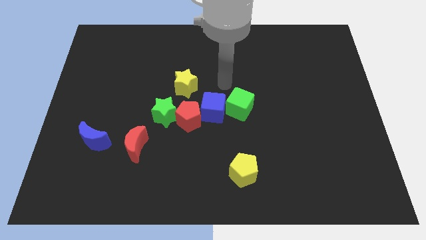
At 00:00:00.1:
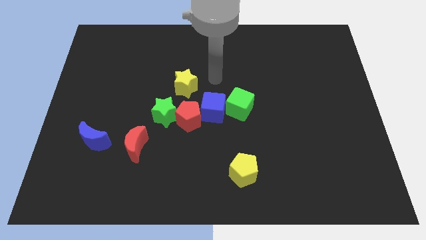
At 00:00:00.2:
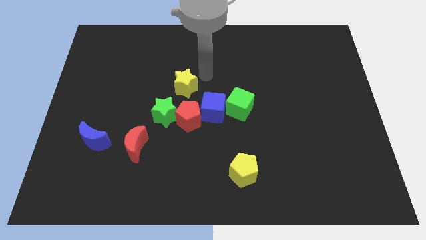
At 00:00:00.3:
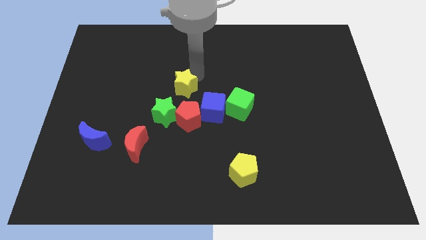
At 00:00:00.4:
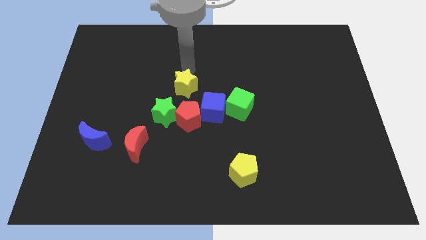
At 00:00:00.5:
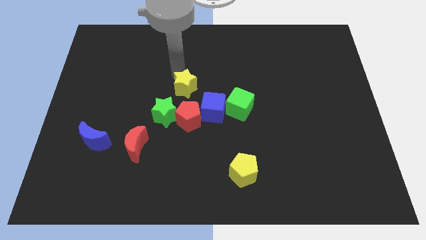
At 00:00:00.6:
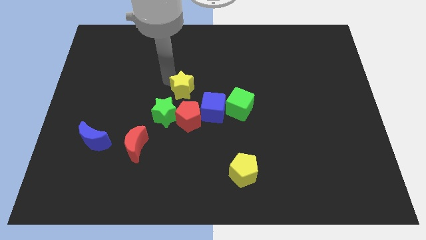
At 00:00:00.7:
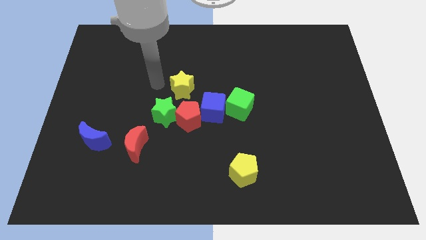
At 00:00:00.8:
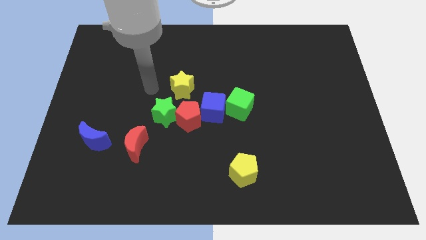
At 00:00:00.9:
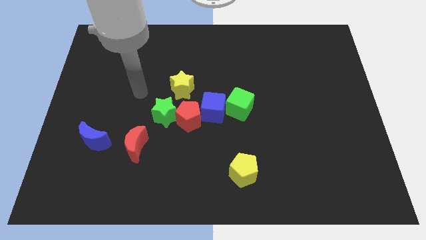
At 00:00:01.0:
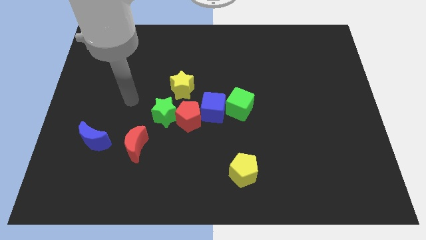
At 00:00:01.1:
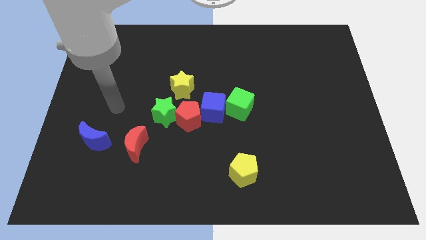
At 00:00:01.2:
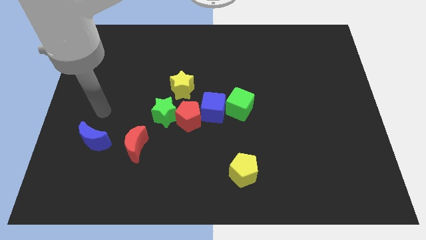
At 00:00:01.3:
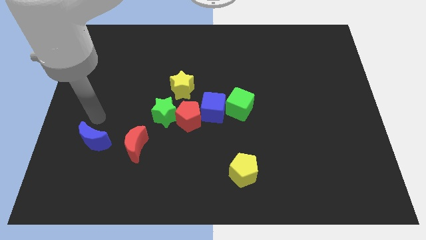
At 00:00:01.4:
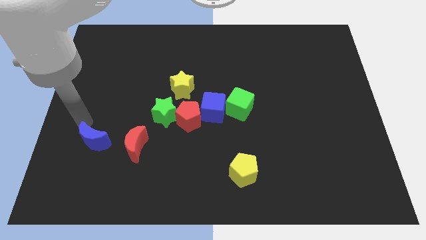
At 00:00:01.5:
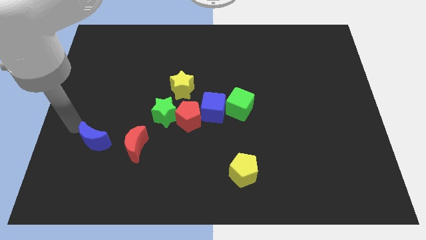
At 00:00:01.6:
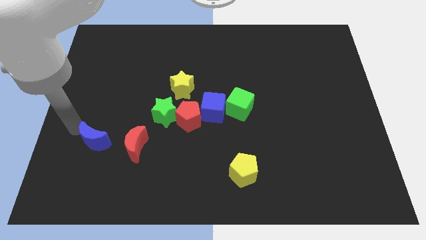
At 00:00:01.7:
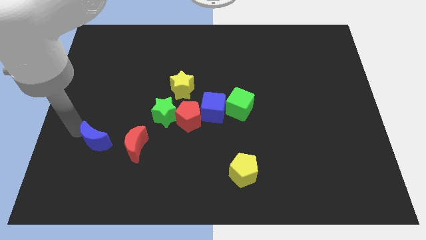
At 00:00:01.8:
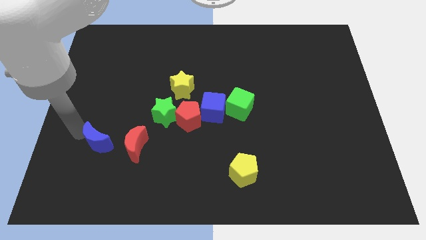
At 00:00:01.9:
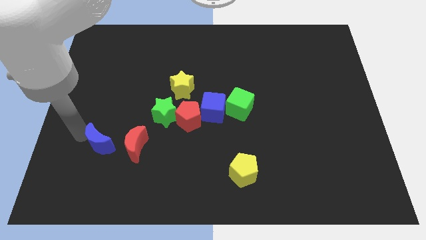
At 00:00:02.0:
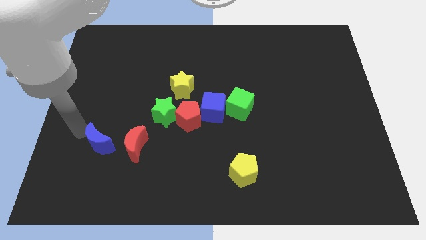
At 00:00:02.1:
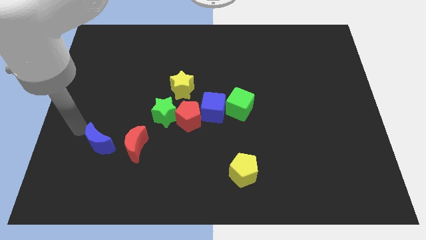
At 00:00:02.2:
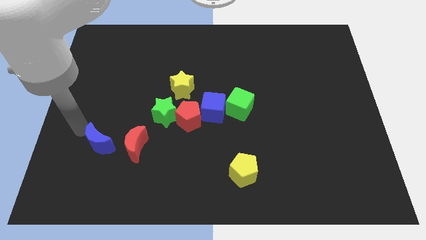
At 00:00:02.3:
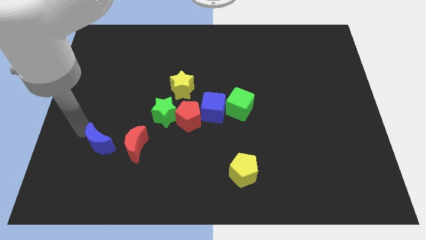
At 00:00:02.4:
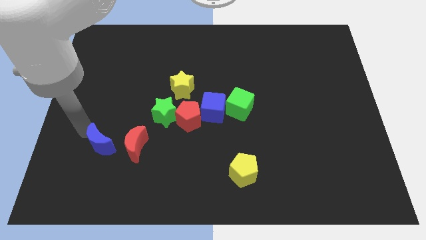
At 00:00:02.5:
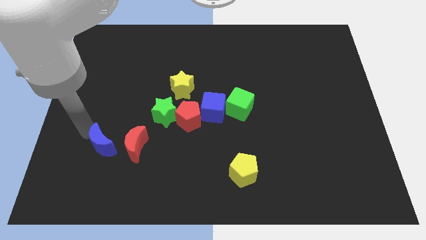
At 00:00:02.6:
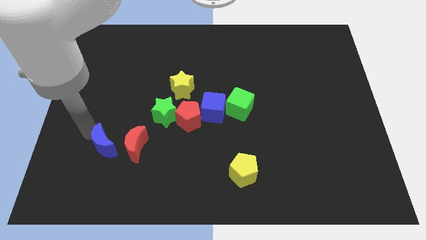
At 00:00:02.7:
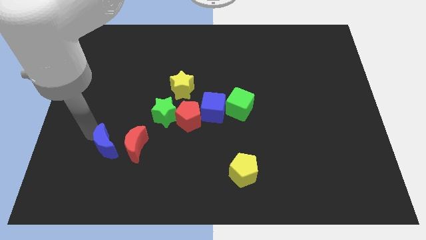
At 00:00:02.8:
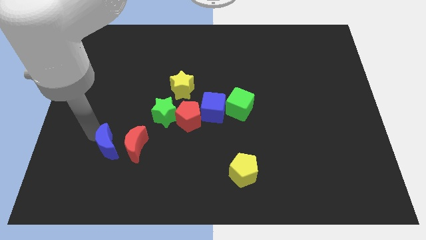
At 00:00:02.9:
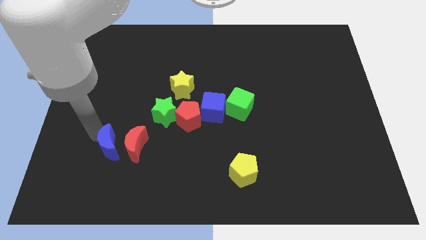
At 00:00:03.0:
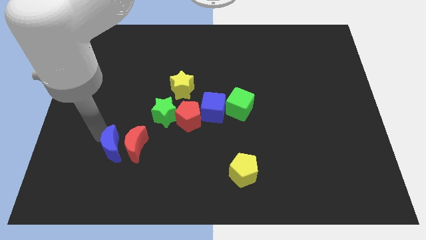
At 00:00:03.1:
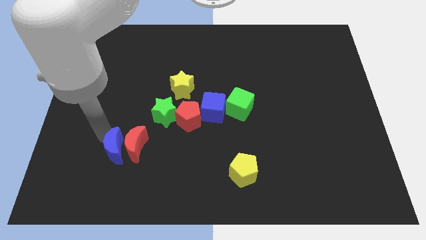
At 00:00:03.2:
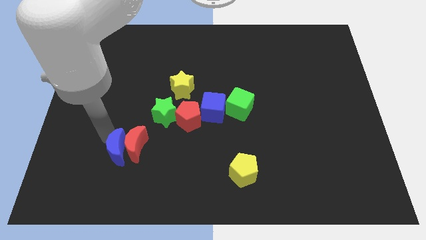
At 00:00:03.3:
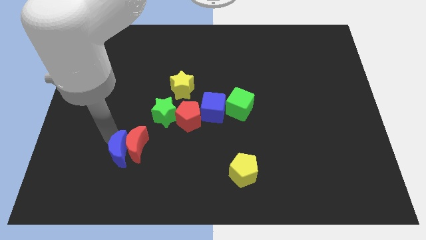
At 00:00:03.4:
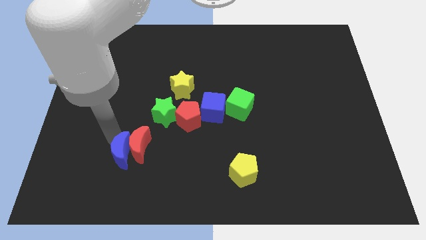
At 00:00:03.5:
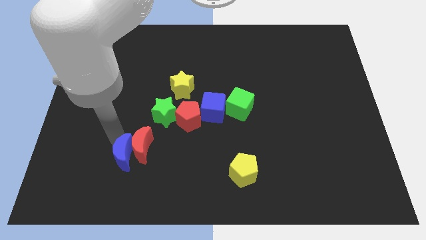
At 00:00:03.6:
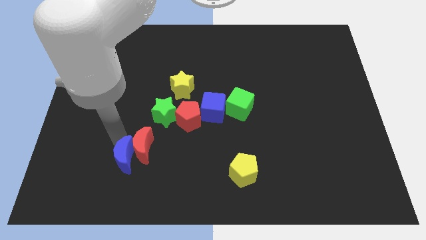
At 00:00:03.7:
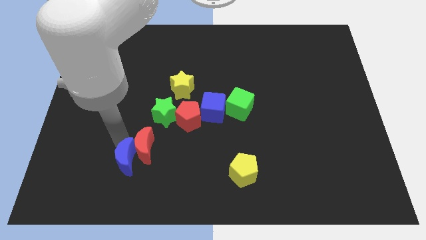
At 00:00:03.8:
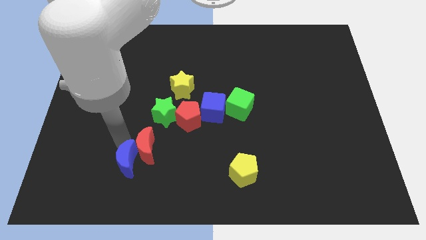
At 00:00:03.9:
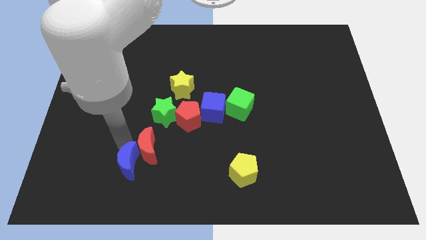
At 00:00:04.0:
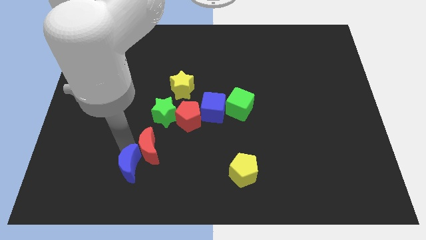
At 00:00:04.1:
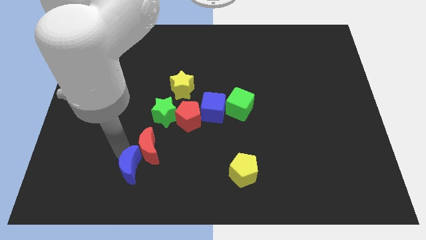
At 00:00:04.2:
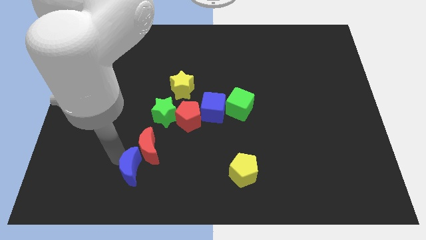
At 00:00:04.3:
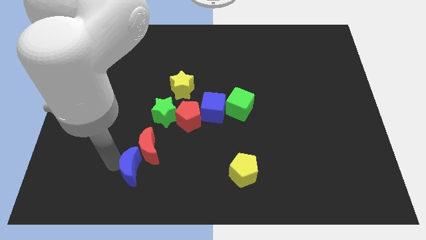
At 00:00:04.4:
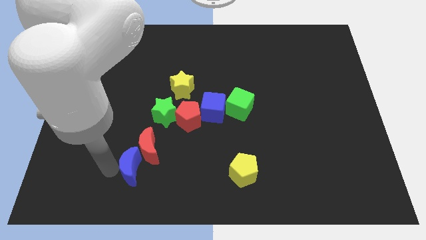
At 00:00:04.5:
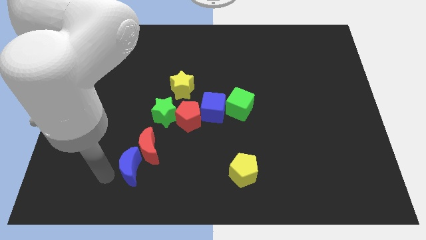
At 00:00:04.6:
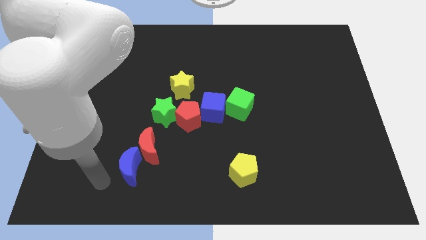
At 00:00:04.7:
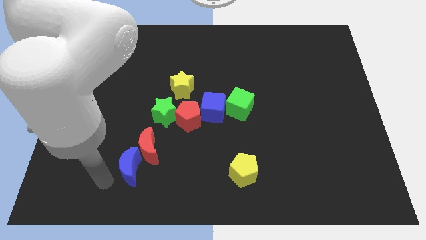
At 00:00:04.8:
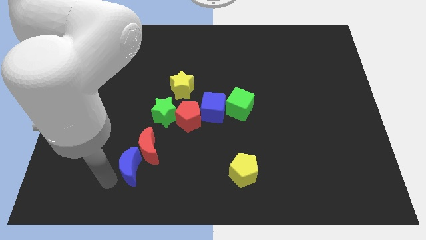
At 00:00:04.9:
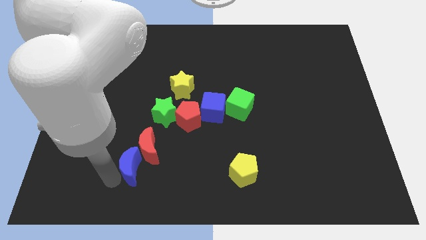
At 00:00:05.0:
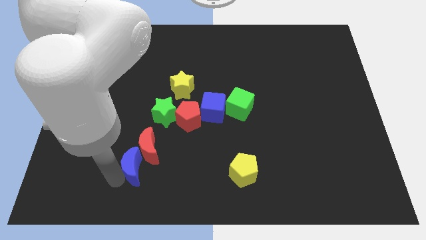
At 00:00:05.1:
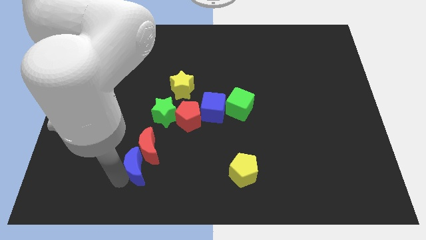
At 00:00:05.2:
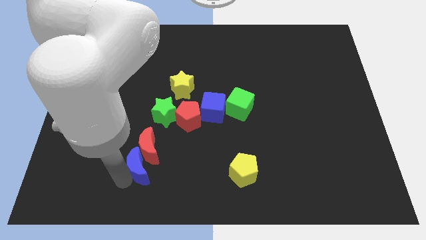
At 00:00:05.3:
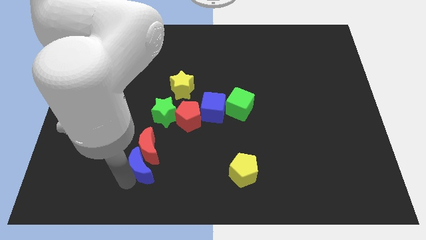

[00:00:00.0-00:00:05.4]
move the blue moon below the green star
